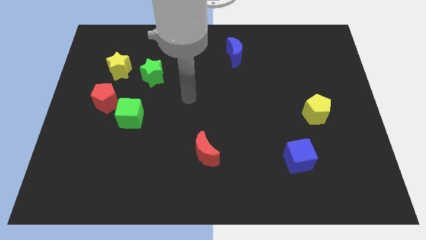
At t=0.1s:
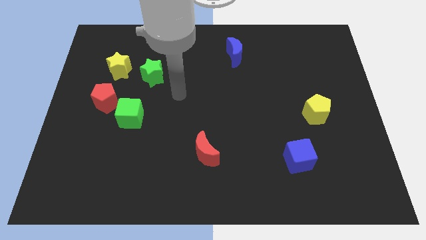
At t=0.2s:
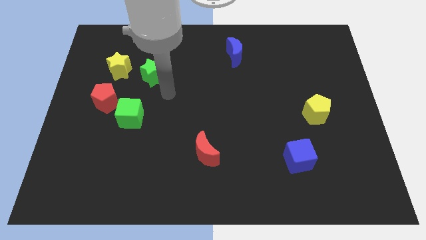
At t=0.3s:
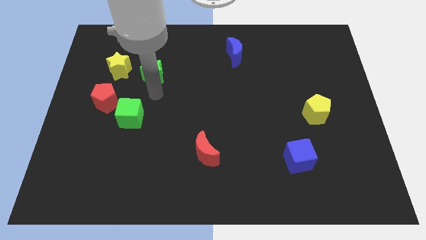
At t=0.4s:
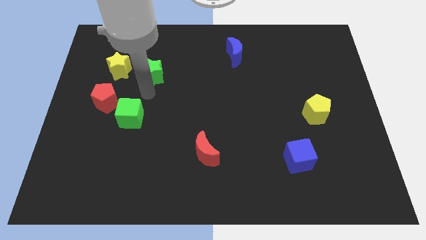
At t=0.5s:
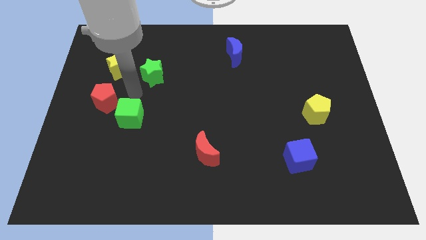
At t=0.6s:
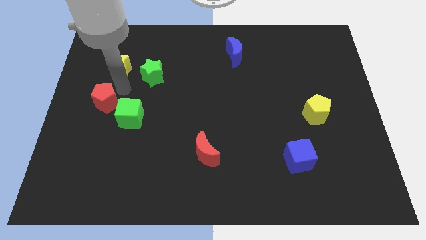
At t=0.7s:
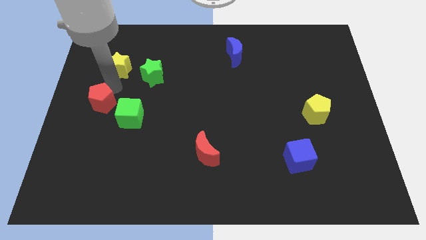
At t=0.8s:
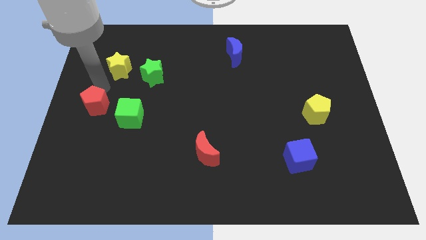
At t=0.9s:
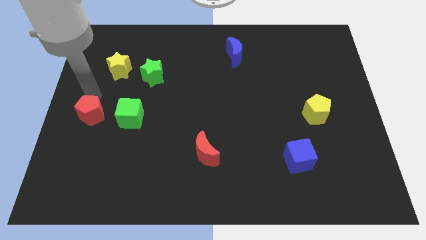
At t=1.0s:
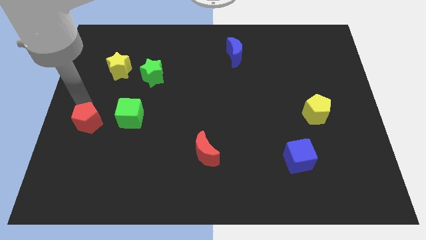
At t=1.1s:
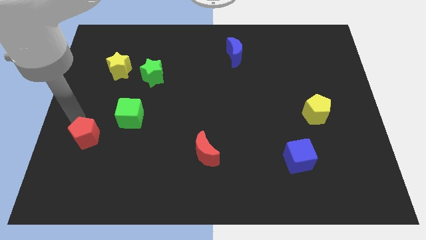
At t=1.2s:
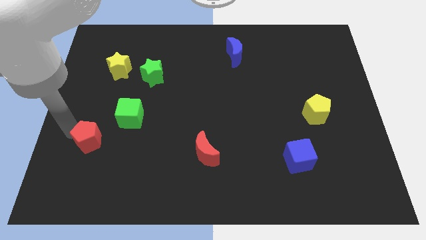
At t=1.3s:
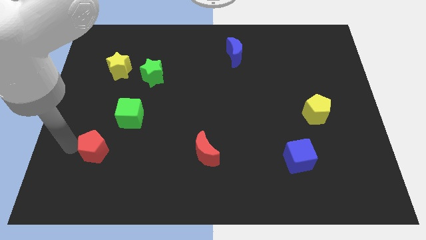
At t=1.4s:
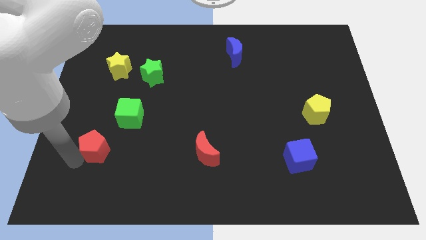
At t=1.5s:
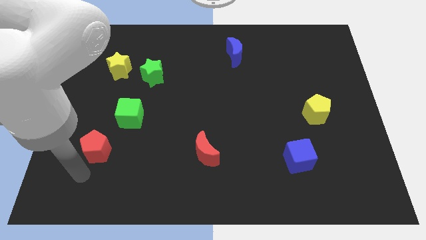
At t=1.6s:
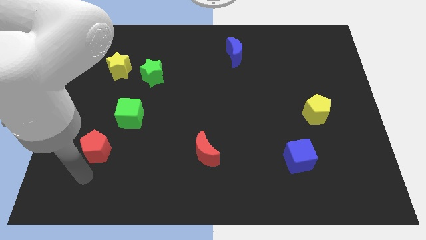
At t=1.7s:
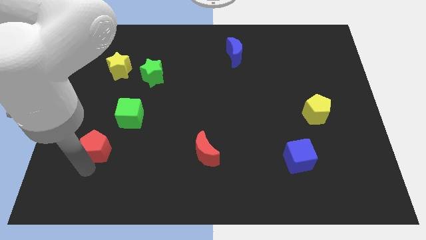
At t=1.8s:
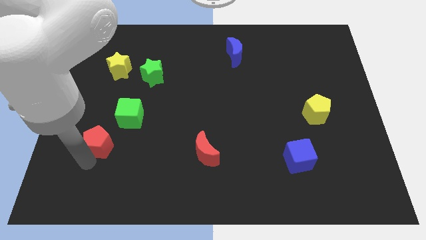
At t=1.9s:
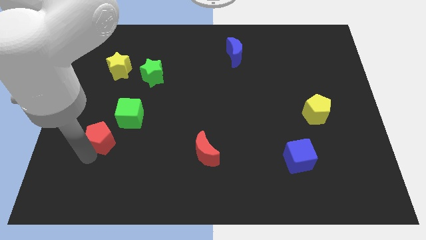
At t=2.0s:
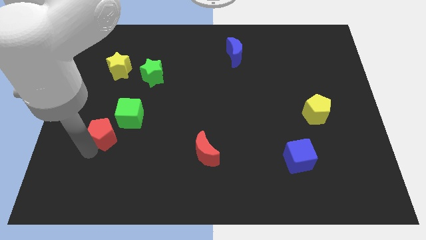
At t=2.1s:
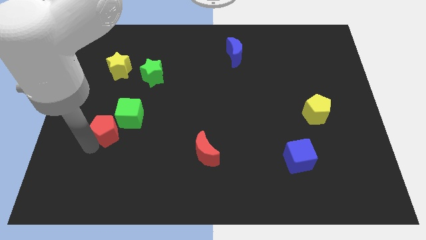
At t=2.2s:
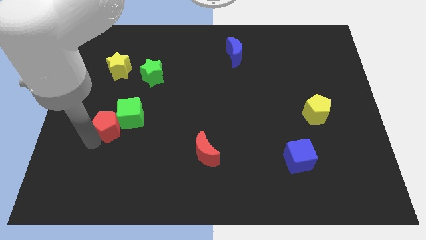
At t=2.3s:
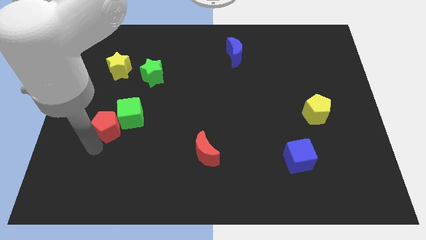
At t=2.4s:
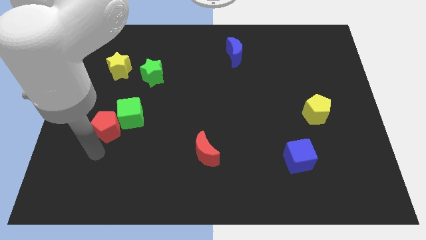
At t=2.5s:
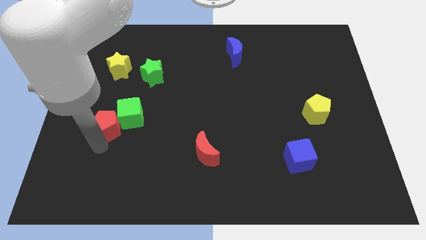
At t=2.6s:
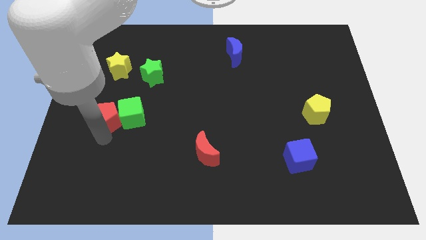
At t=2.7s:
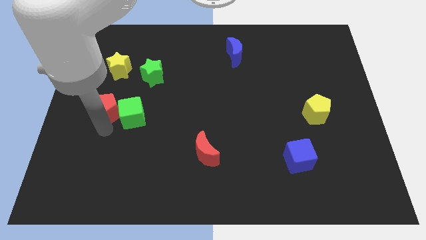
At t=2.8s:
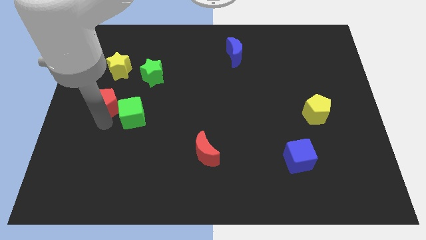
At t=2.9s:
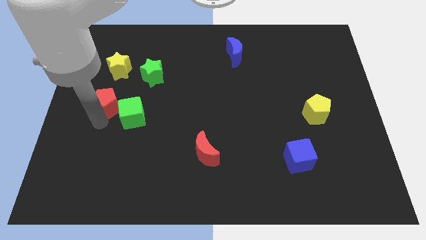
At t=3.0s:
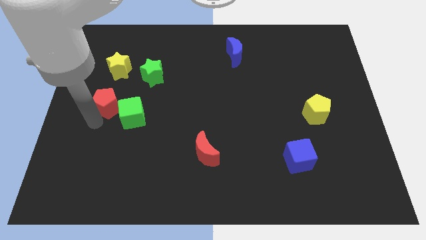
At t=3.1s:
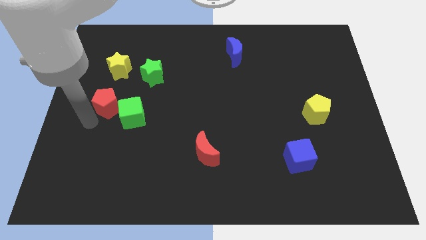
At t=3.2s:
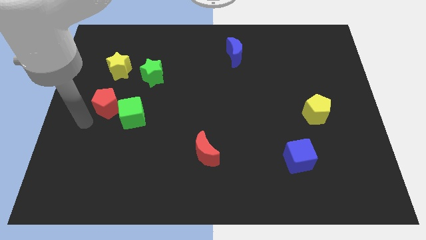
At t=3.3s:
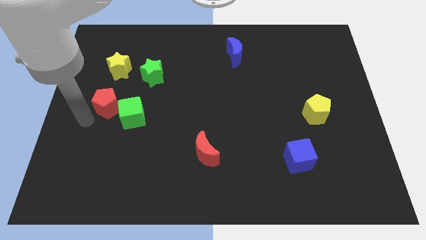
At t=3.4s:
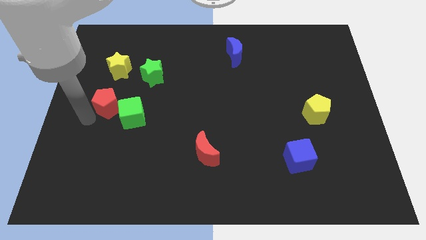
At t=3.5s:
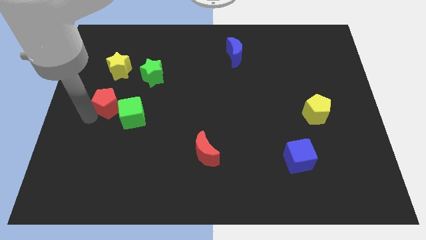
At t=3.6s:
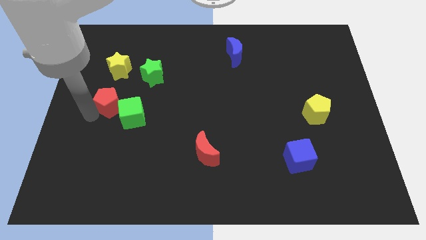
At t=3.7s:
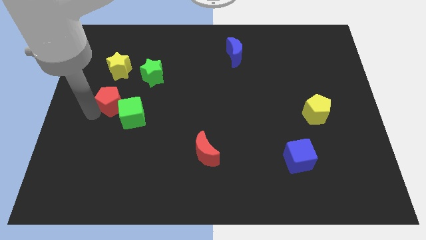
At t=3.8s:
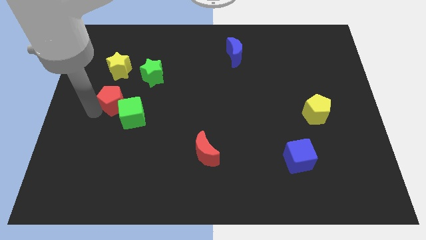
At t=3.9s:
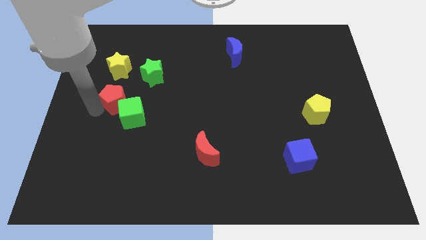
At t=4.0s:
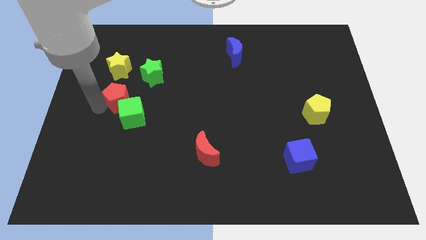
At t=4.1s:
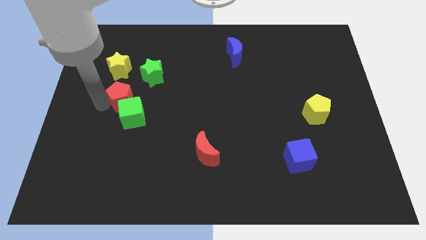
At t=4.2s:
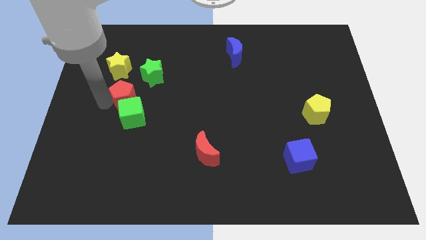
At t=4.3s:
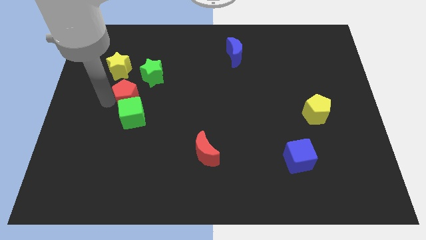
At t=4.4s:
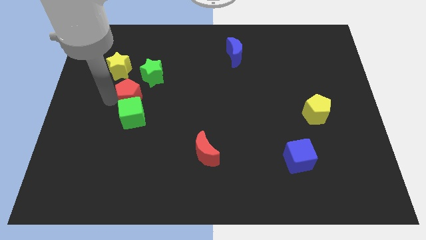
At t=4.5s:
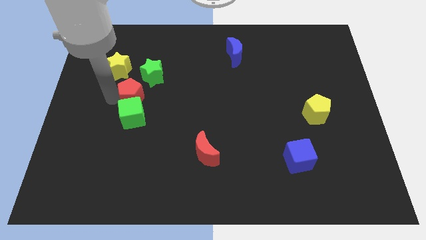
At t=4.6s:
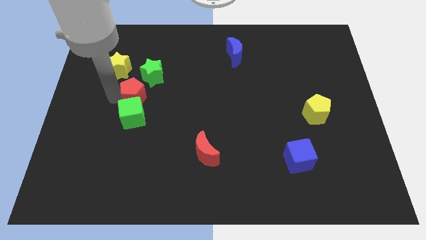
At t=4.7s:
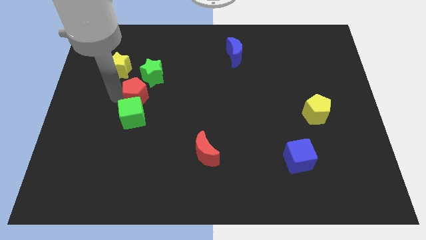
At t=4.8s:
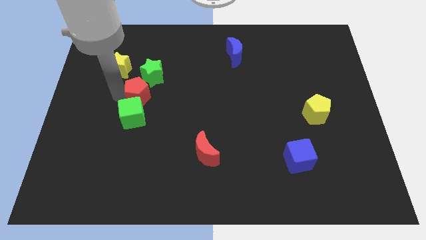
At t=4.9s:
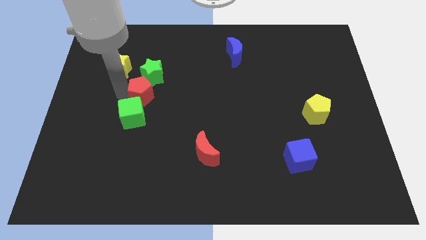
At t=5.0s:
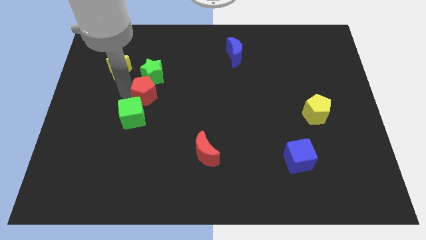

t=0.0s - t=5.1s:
push the red pentagon diagonally upwards and right a little bit

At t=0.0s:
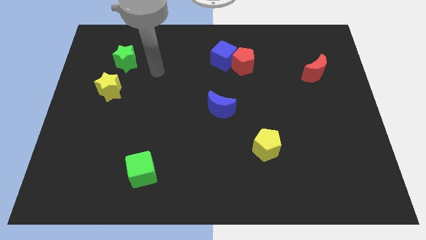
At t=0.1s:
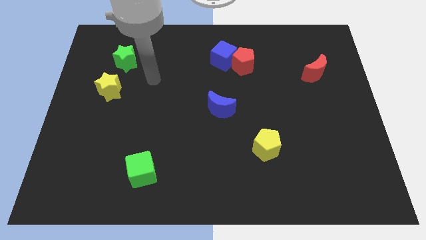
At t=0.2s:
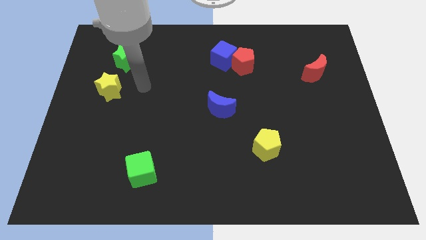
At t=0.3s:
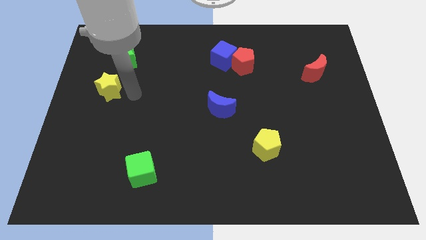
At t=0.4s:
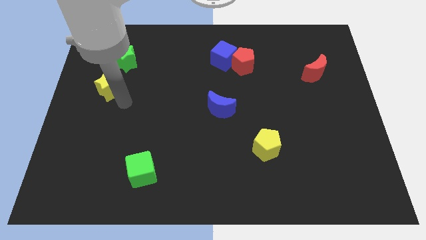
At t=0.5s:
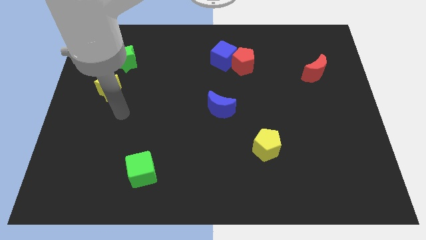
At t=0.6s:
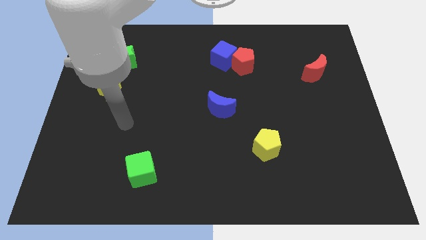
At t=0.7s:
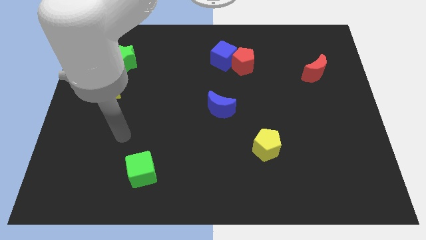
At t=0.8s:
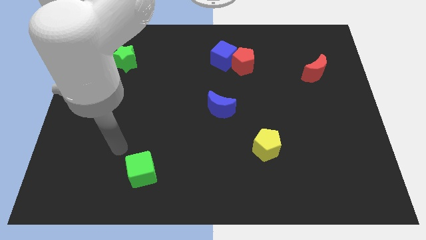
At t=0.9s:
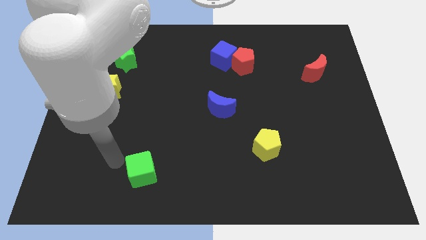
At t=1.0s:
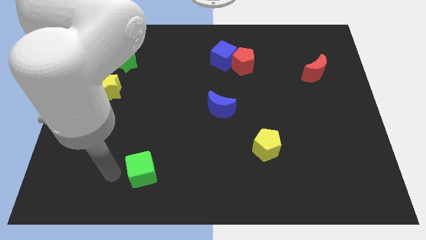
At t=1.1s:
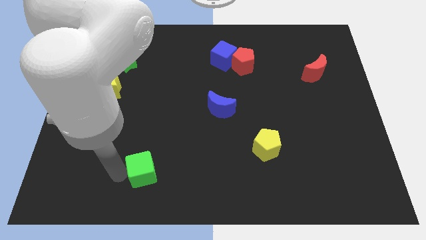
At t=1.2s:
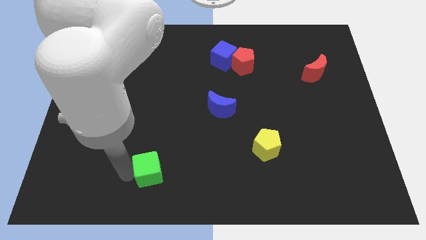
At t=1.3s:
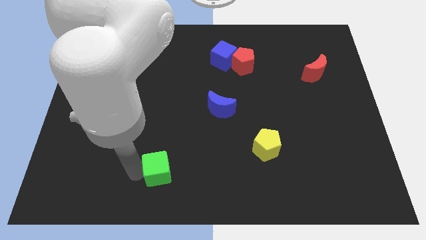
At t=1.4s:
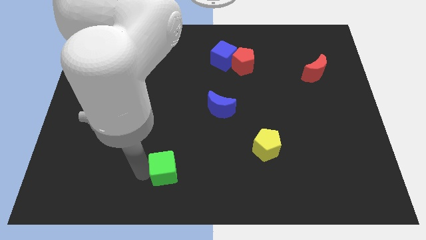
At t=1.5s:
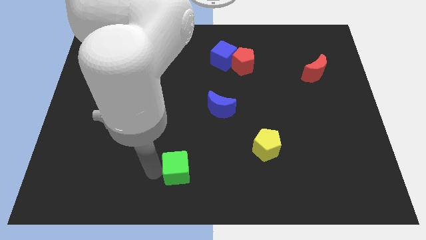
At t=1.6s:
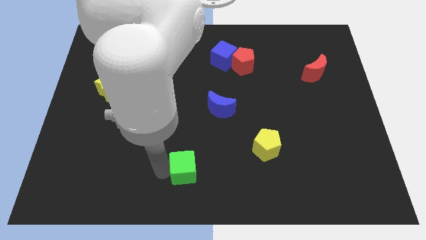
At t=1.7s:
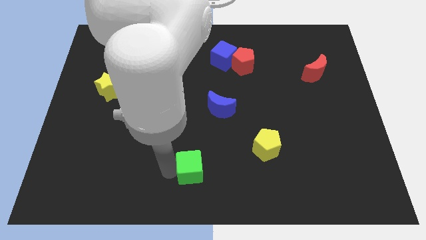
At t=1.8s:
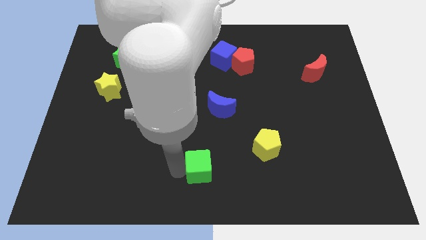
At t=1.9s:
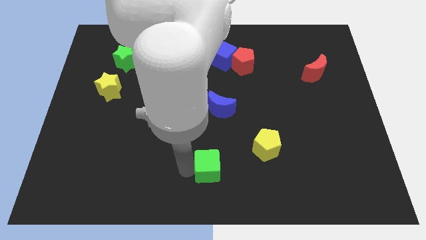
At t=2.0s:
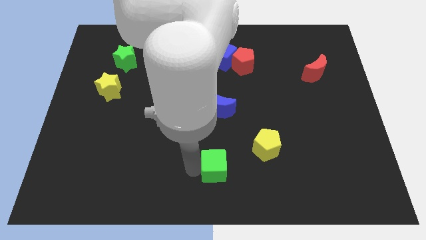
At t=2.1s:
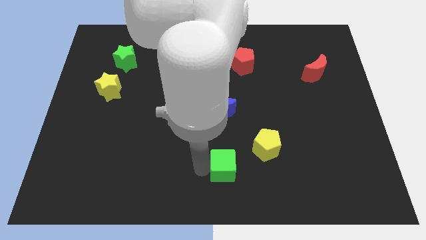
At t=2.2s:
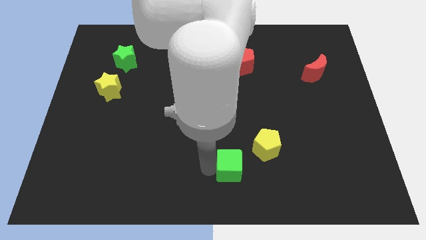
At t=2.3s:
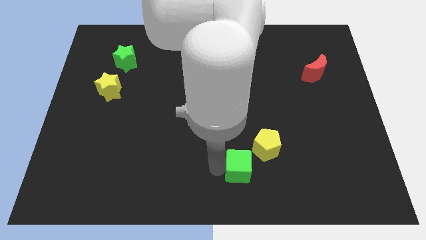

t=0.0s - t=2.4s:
slide the green cube to the right
